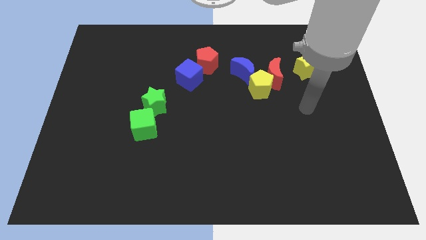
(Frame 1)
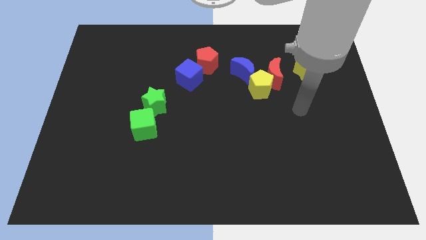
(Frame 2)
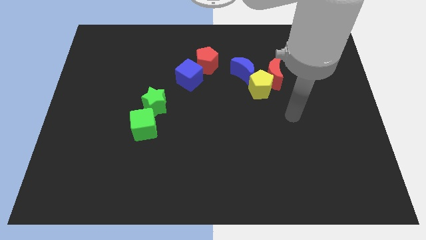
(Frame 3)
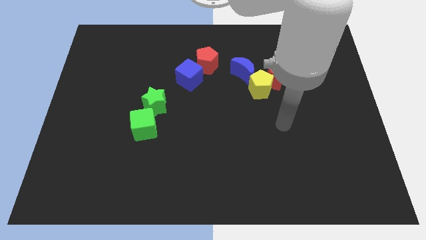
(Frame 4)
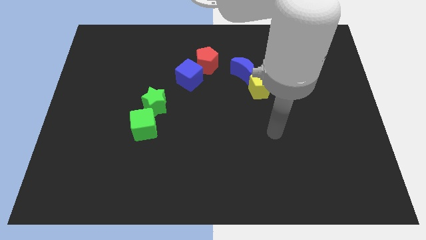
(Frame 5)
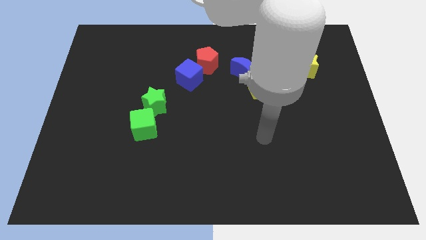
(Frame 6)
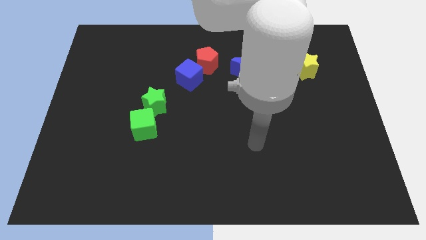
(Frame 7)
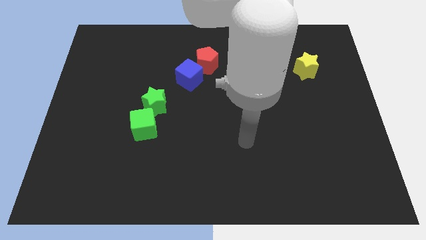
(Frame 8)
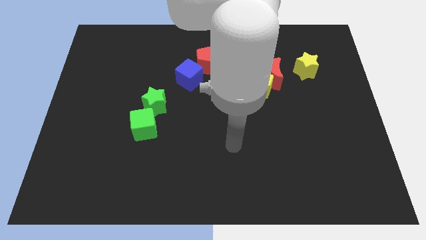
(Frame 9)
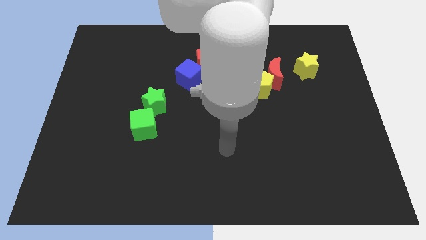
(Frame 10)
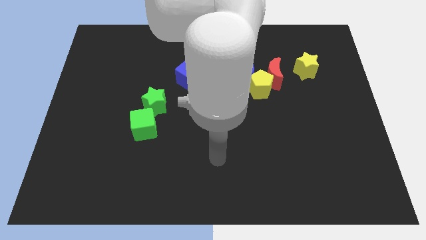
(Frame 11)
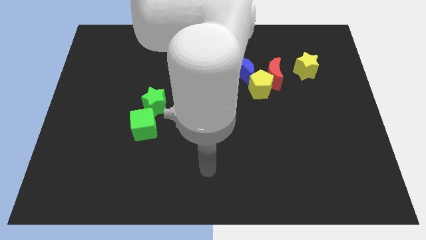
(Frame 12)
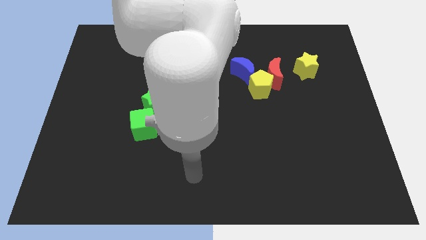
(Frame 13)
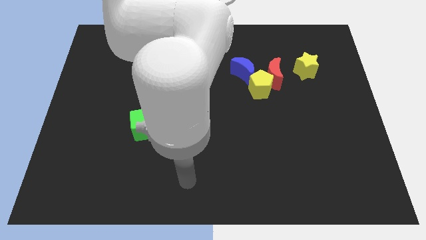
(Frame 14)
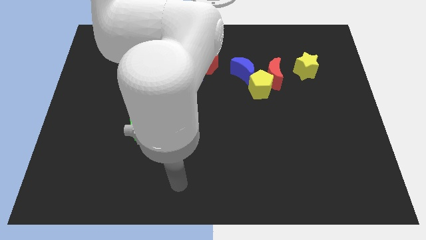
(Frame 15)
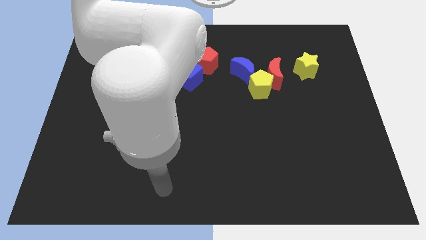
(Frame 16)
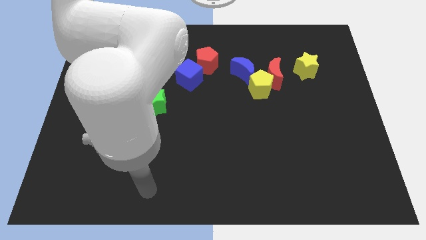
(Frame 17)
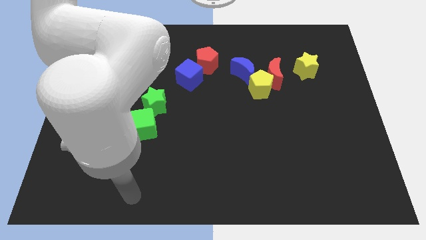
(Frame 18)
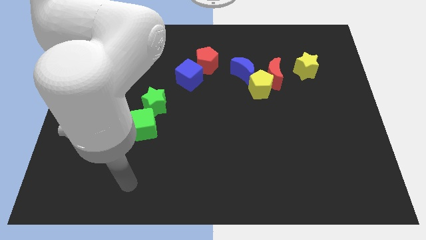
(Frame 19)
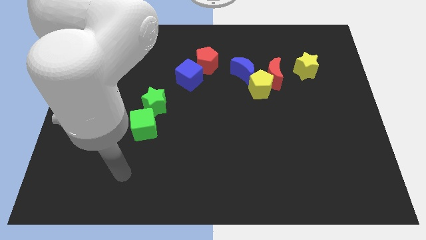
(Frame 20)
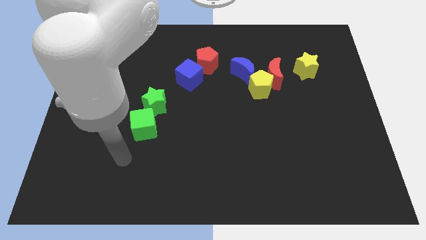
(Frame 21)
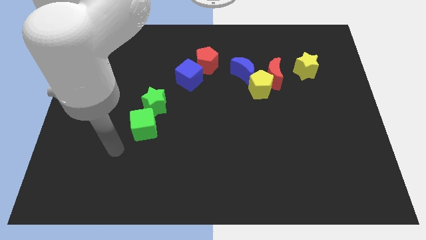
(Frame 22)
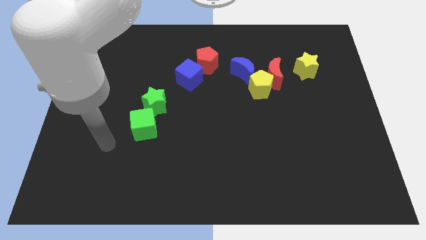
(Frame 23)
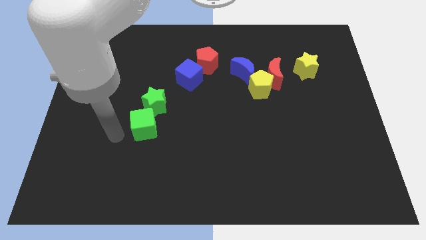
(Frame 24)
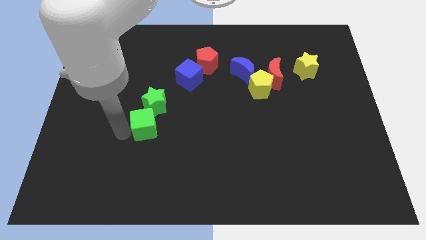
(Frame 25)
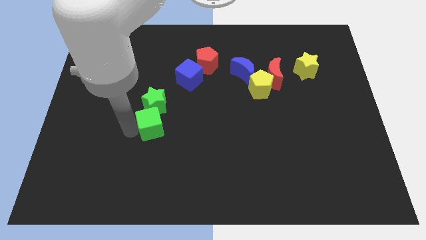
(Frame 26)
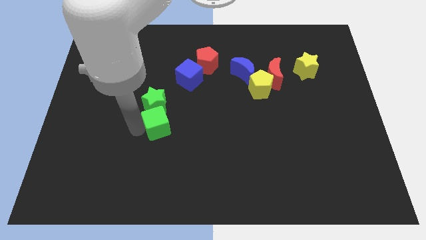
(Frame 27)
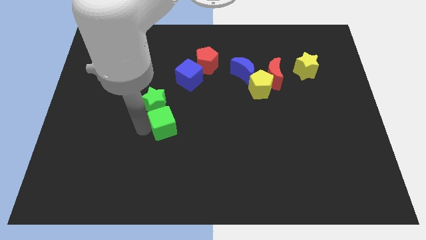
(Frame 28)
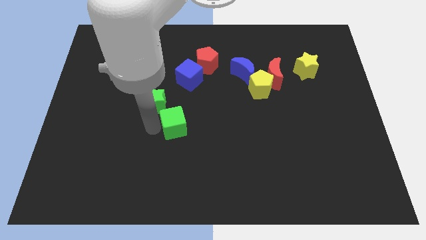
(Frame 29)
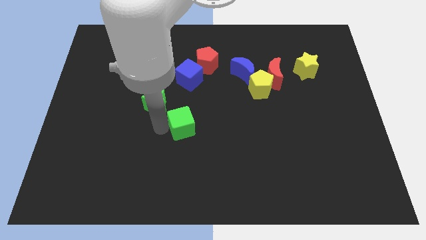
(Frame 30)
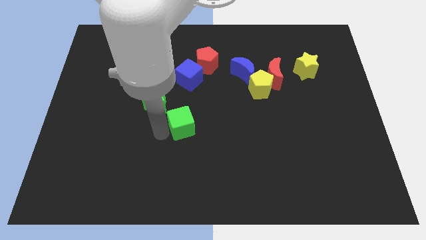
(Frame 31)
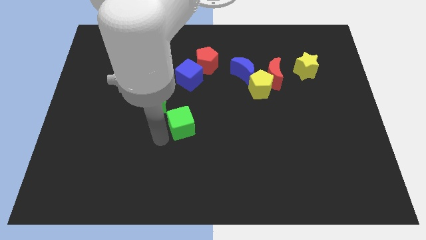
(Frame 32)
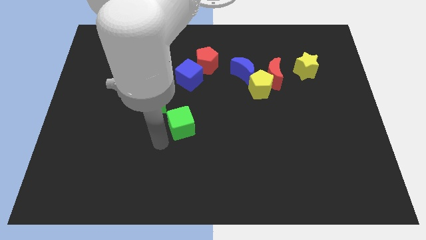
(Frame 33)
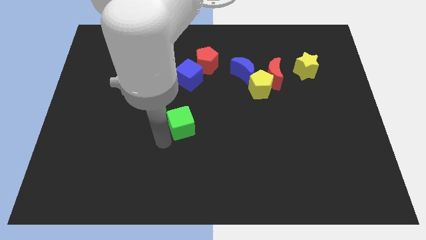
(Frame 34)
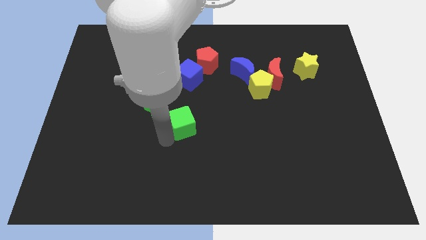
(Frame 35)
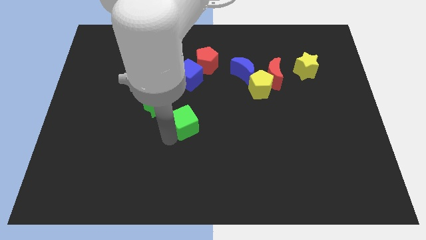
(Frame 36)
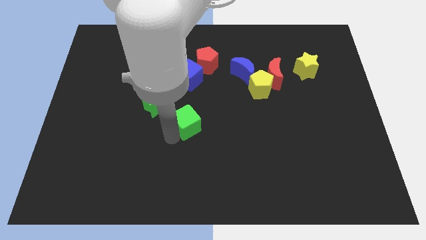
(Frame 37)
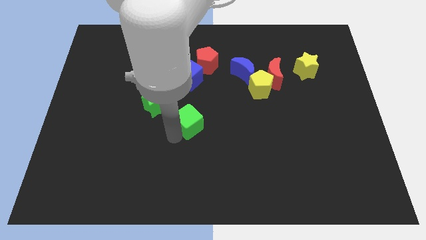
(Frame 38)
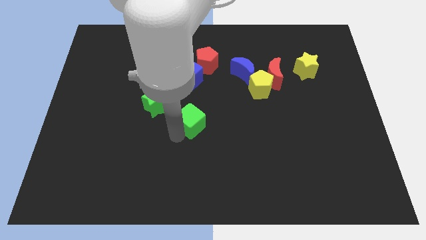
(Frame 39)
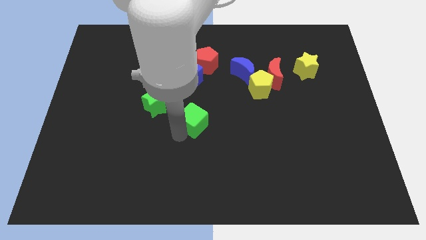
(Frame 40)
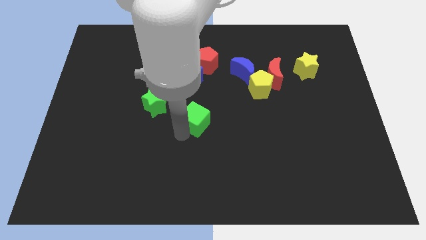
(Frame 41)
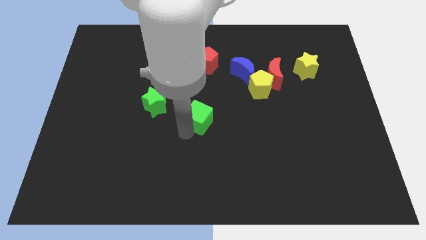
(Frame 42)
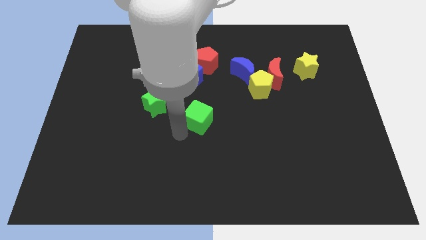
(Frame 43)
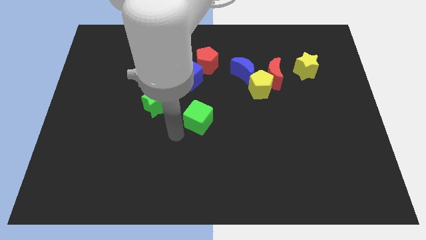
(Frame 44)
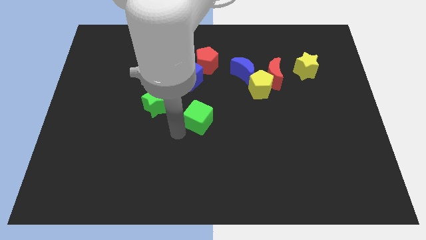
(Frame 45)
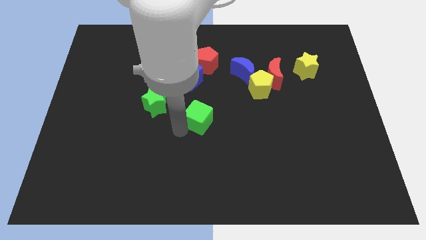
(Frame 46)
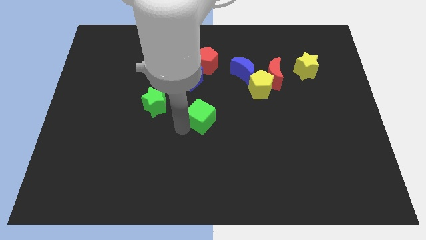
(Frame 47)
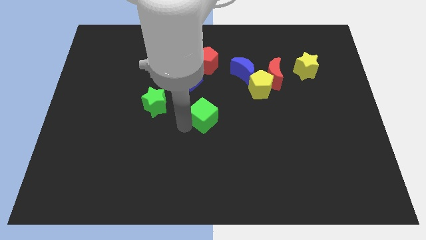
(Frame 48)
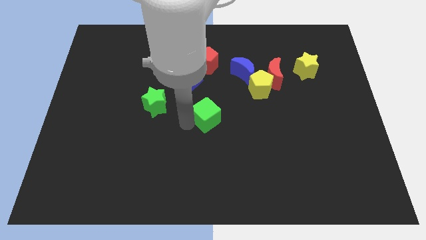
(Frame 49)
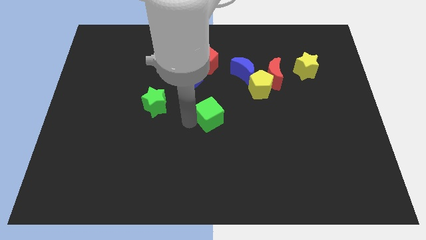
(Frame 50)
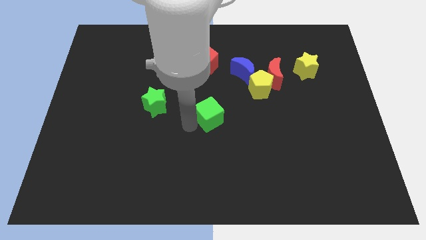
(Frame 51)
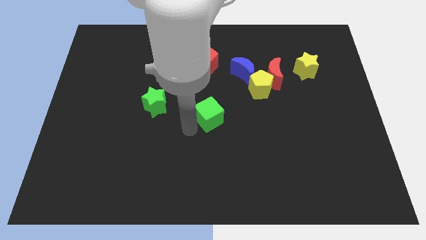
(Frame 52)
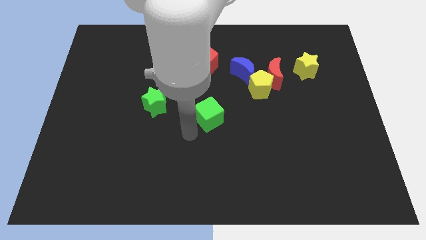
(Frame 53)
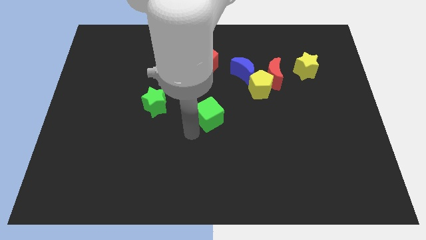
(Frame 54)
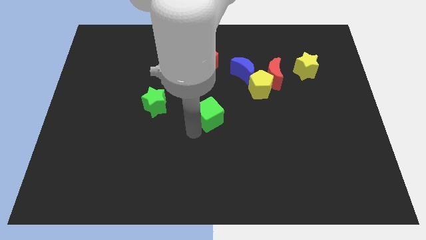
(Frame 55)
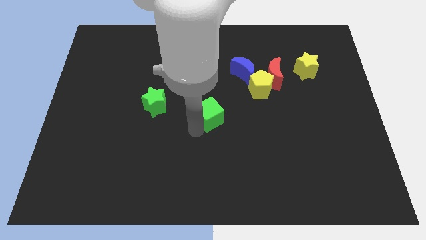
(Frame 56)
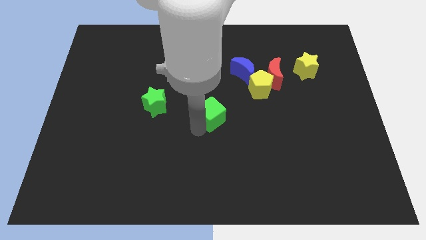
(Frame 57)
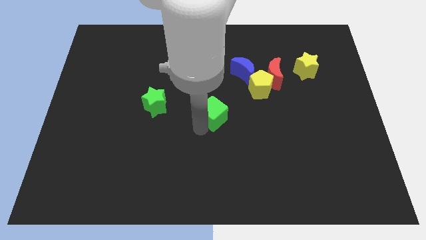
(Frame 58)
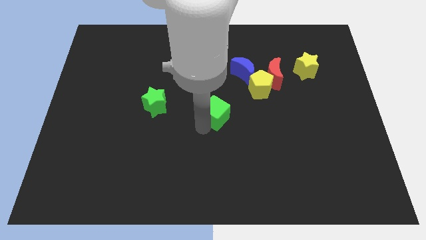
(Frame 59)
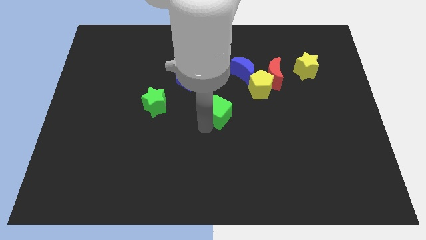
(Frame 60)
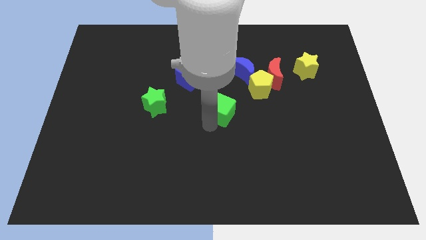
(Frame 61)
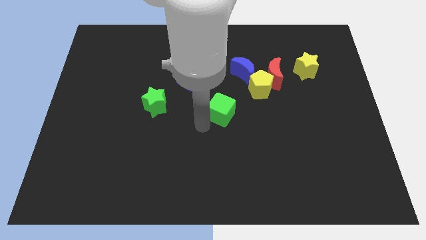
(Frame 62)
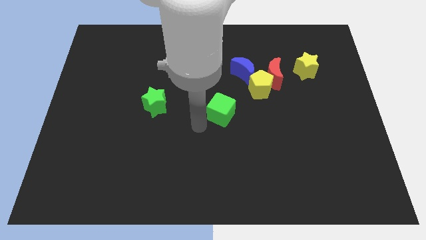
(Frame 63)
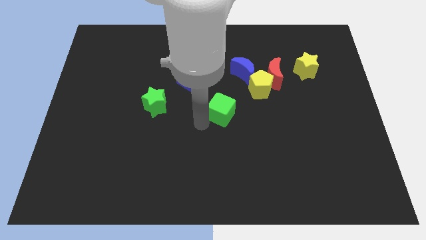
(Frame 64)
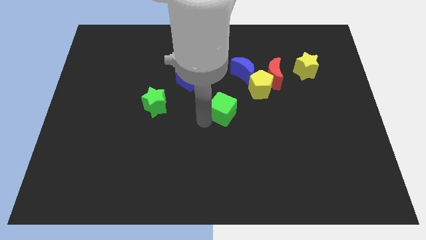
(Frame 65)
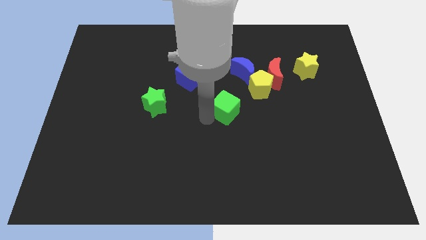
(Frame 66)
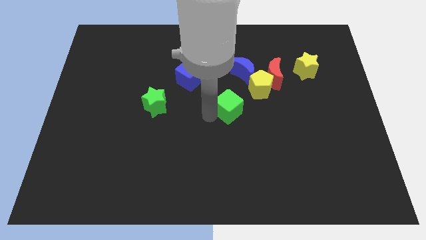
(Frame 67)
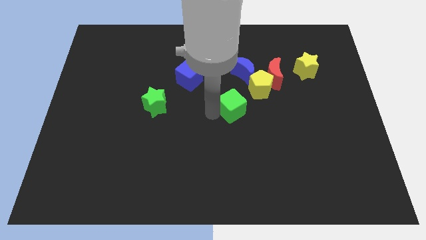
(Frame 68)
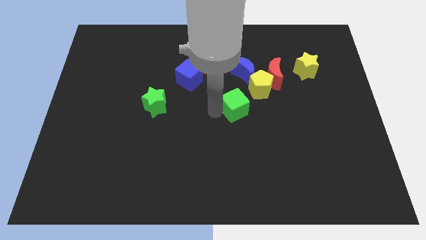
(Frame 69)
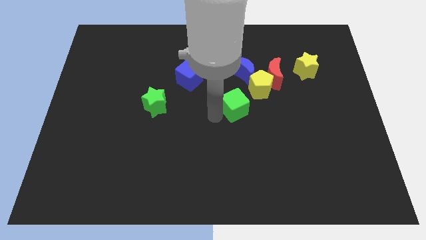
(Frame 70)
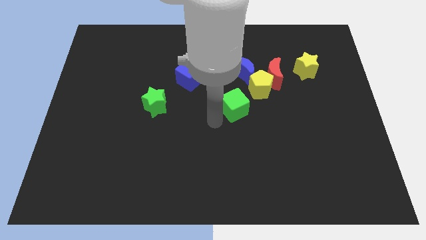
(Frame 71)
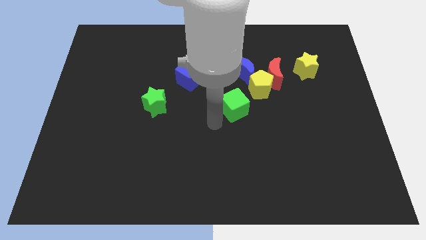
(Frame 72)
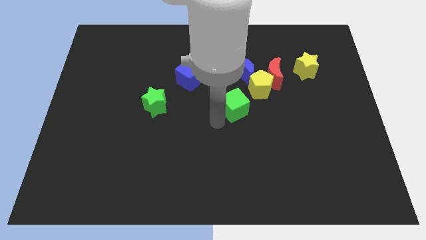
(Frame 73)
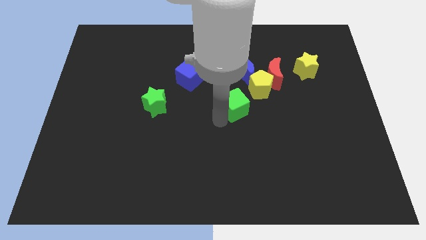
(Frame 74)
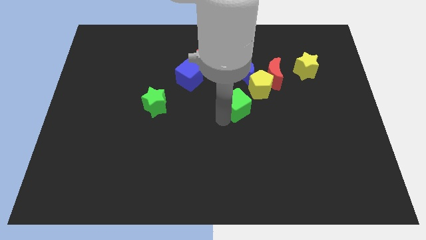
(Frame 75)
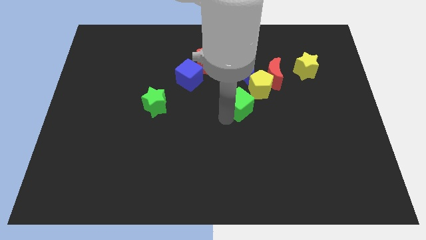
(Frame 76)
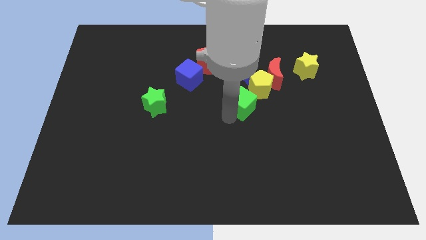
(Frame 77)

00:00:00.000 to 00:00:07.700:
push the green cube diagonally down and to the left of the red moon
